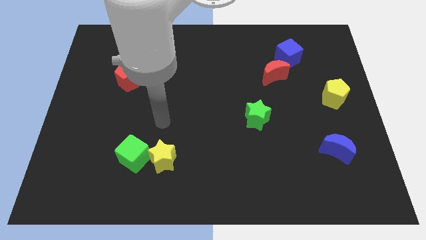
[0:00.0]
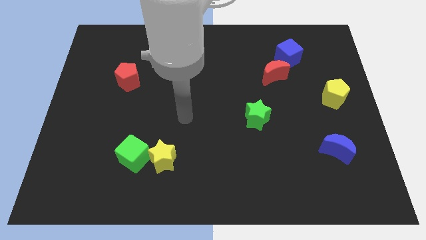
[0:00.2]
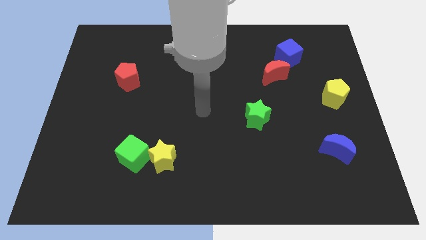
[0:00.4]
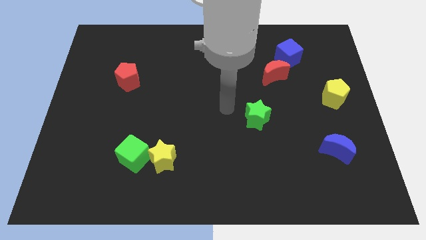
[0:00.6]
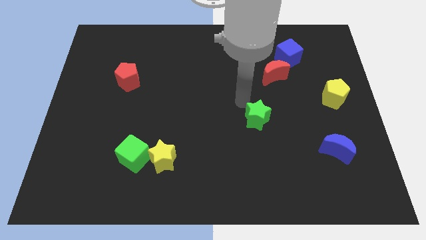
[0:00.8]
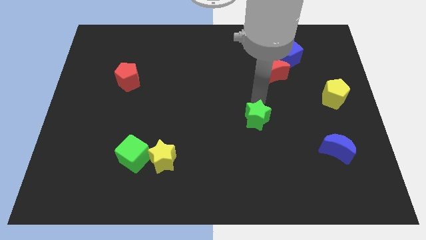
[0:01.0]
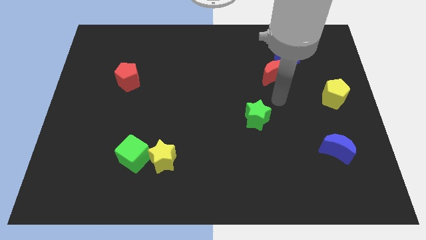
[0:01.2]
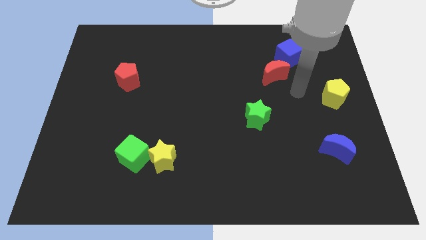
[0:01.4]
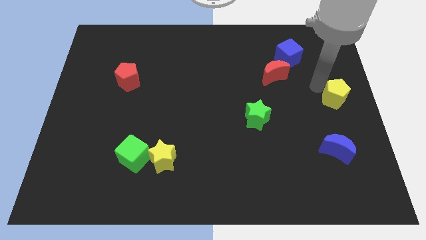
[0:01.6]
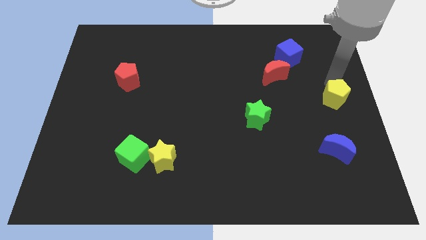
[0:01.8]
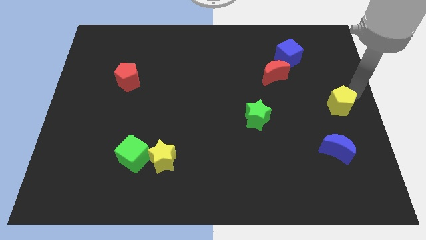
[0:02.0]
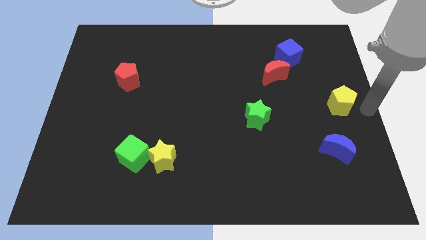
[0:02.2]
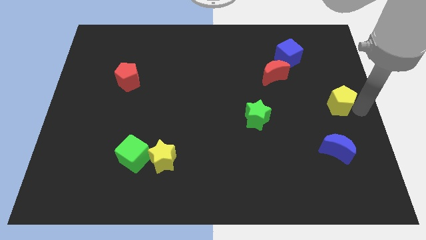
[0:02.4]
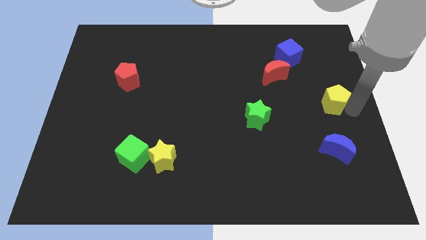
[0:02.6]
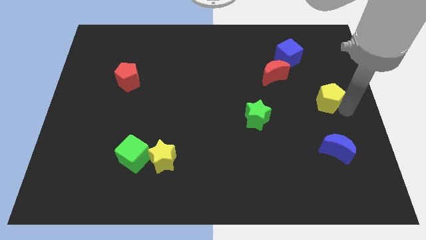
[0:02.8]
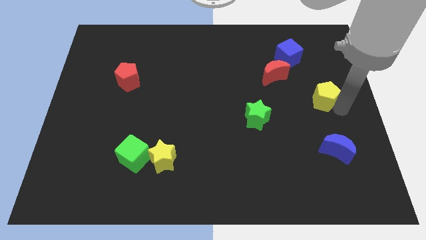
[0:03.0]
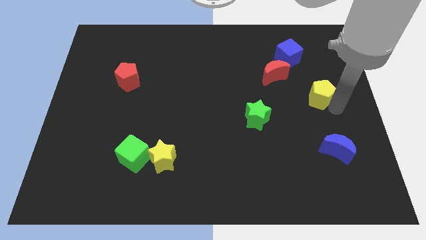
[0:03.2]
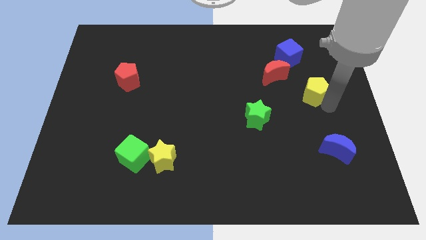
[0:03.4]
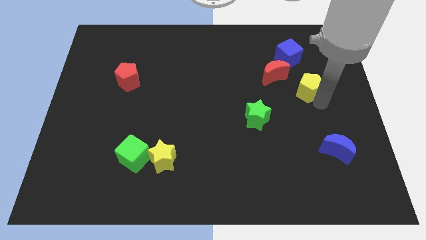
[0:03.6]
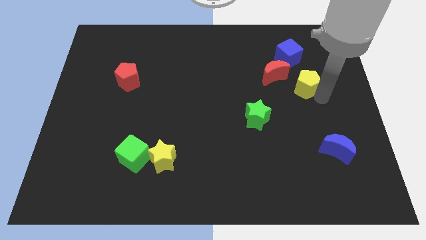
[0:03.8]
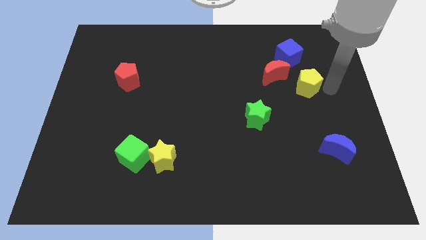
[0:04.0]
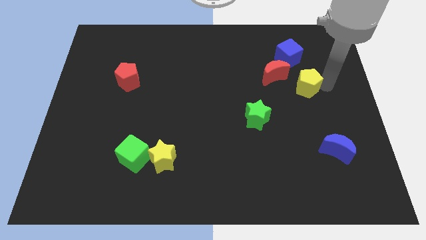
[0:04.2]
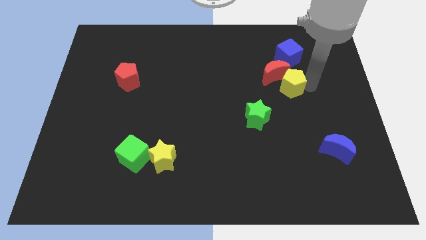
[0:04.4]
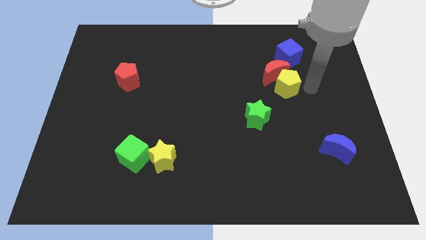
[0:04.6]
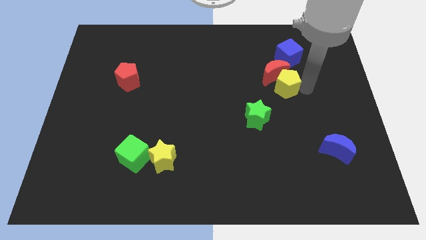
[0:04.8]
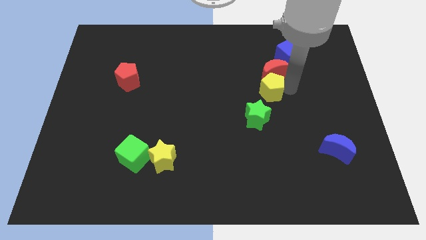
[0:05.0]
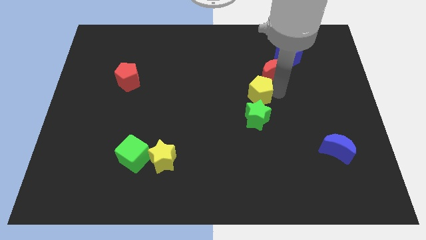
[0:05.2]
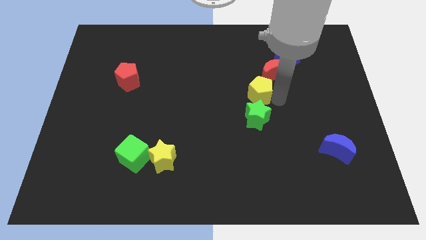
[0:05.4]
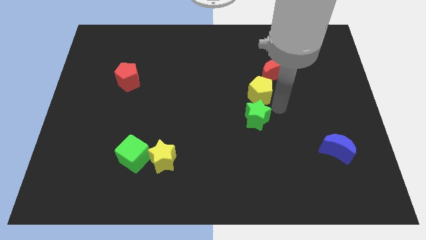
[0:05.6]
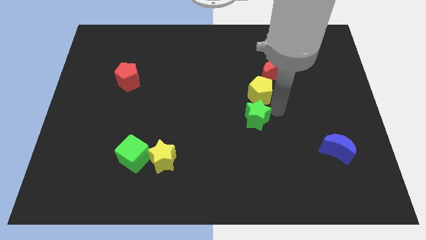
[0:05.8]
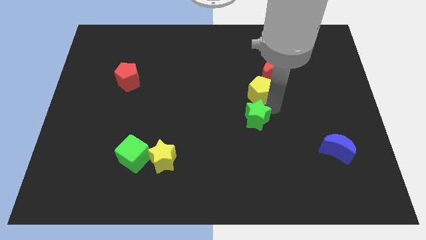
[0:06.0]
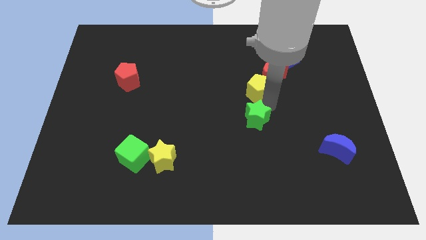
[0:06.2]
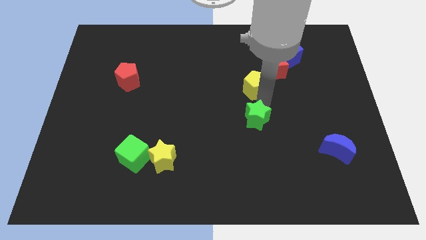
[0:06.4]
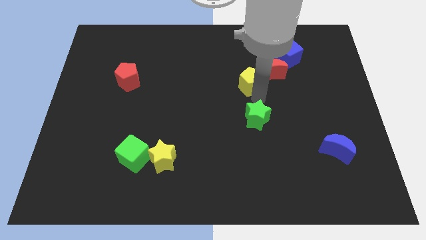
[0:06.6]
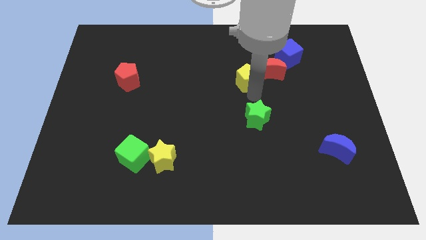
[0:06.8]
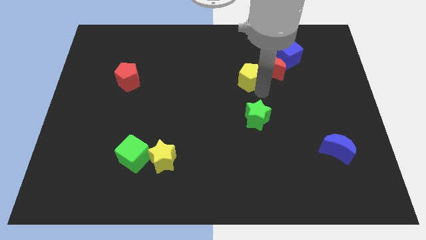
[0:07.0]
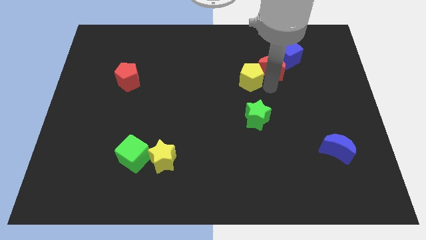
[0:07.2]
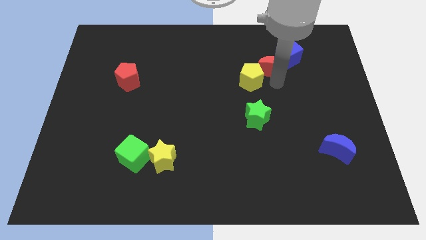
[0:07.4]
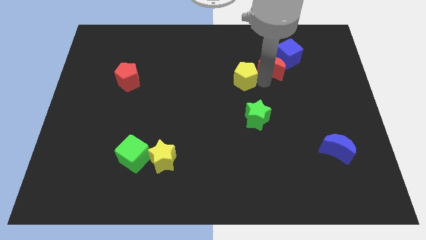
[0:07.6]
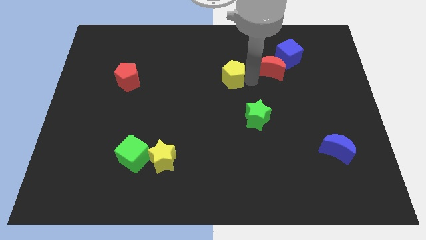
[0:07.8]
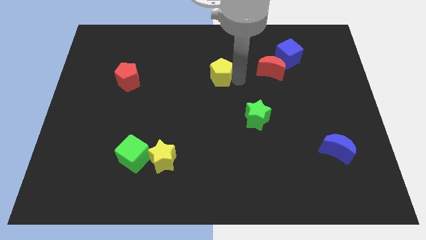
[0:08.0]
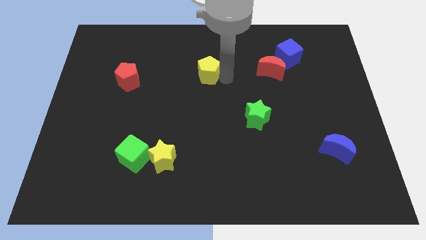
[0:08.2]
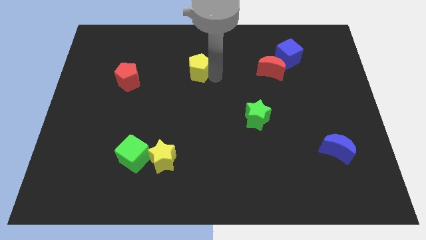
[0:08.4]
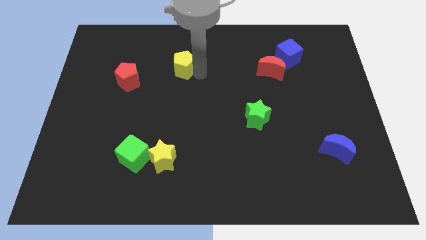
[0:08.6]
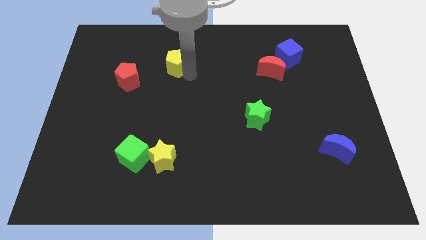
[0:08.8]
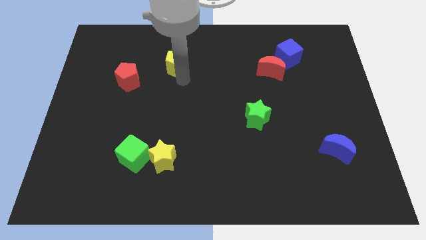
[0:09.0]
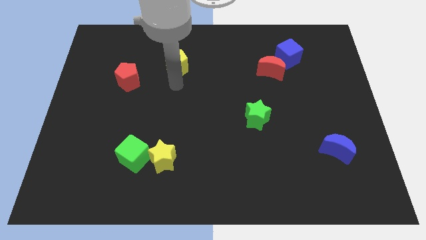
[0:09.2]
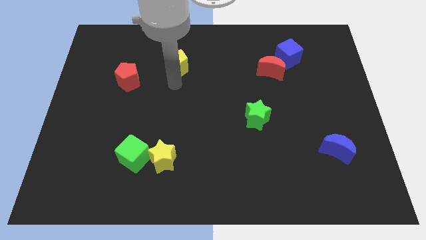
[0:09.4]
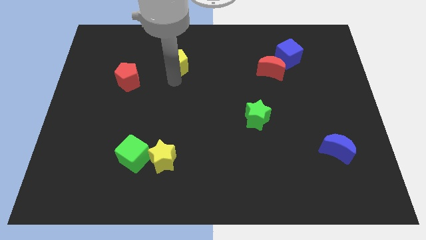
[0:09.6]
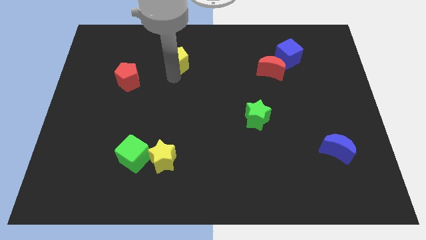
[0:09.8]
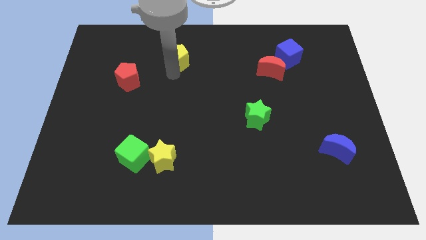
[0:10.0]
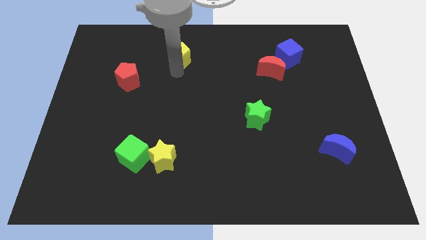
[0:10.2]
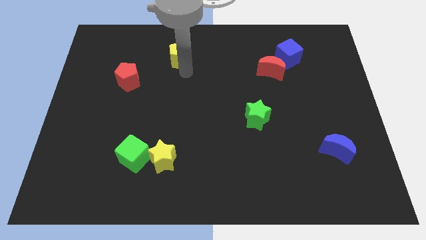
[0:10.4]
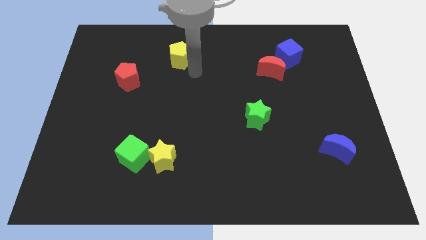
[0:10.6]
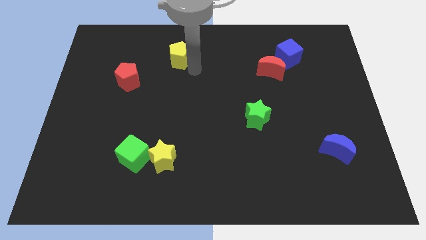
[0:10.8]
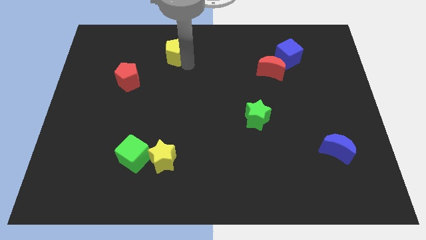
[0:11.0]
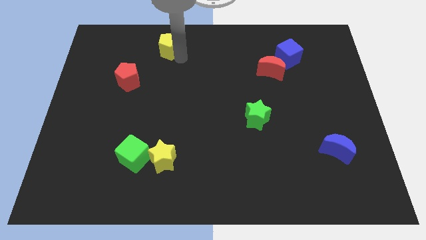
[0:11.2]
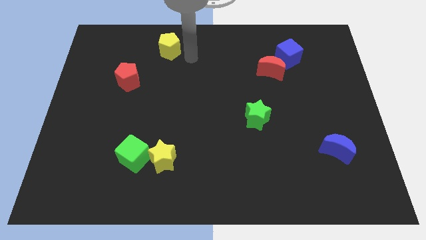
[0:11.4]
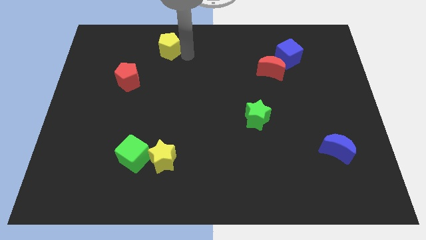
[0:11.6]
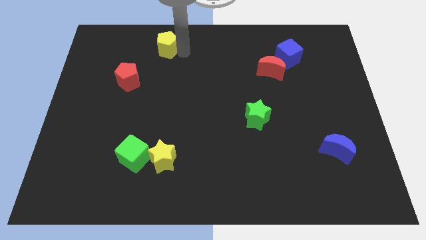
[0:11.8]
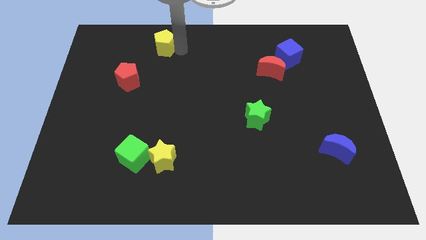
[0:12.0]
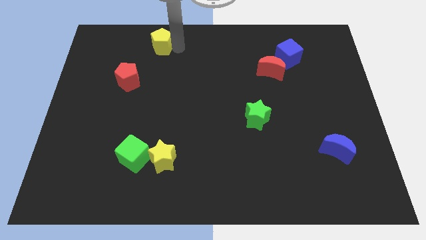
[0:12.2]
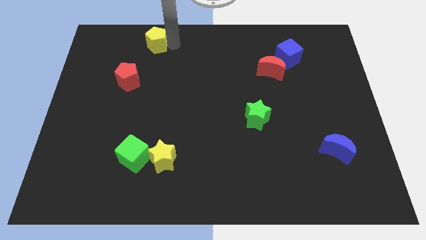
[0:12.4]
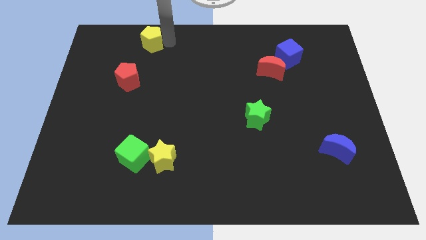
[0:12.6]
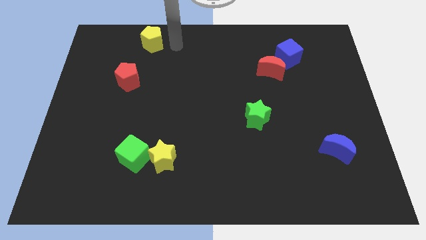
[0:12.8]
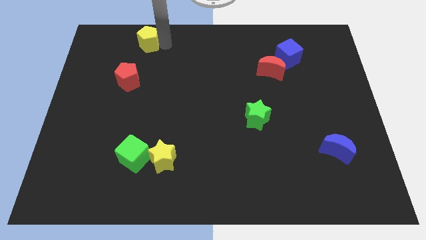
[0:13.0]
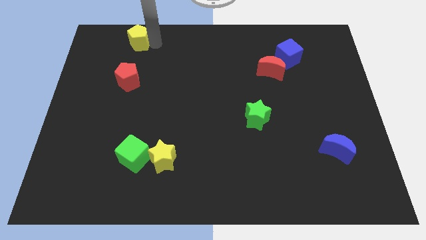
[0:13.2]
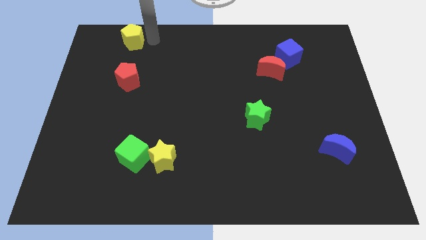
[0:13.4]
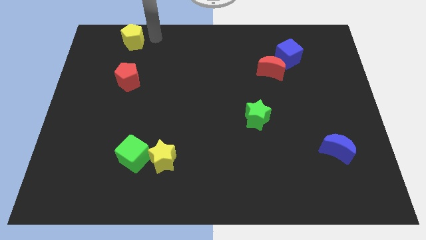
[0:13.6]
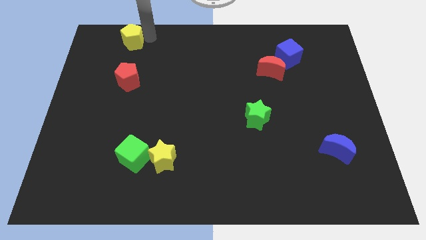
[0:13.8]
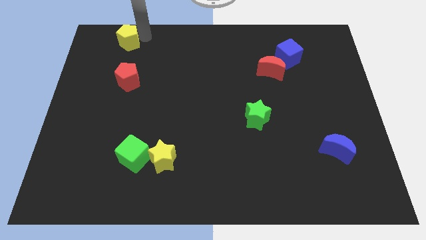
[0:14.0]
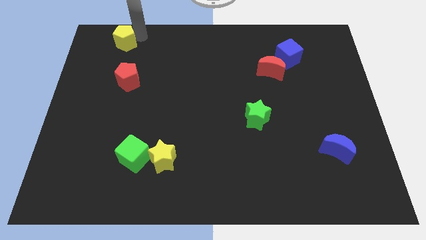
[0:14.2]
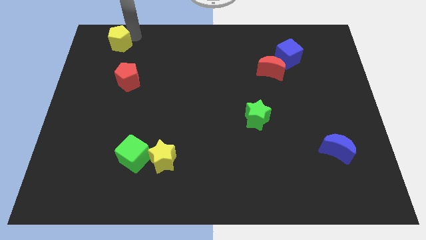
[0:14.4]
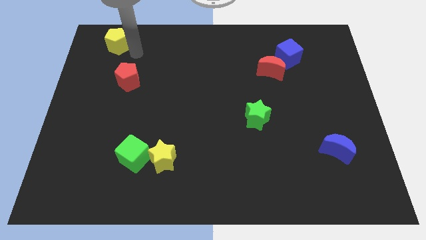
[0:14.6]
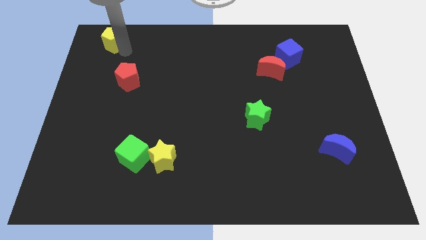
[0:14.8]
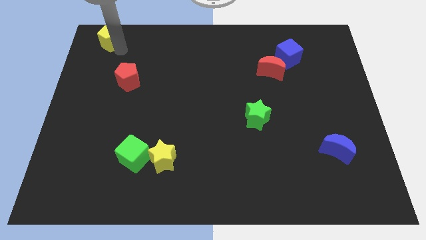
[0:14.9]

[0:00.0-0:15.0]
push the yellow pentagon to the upper left corner
